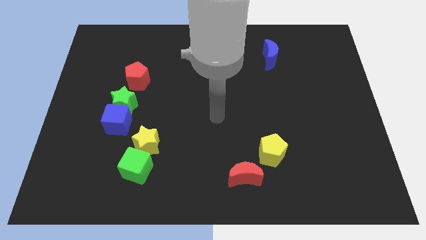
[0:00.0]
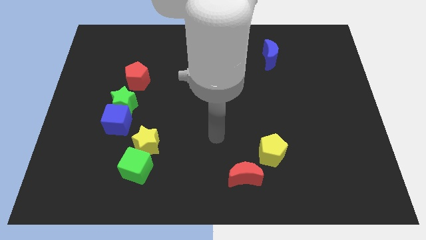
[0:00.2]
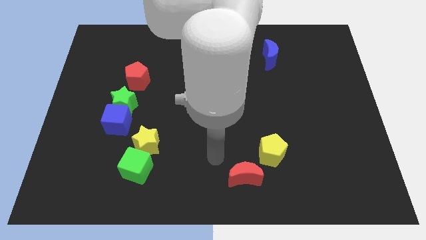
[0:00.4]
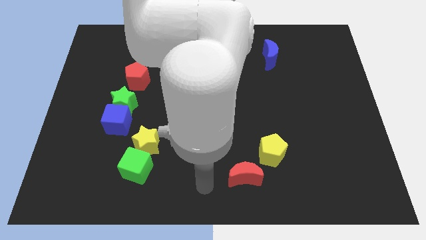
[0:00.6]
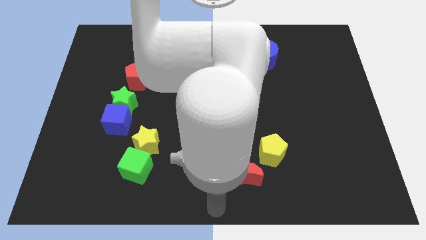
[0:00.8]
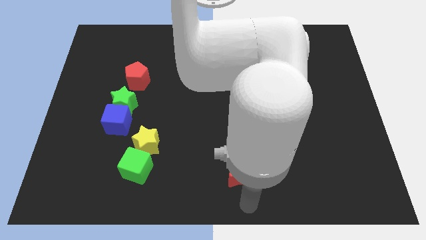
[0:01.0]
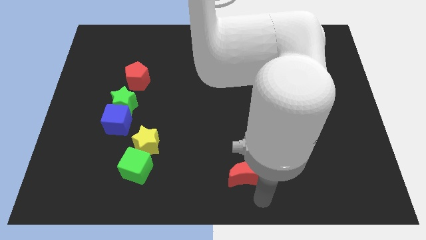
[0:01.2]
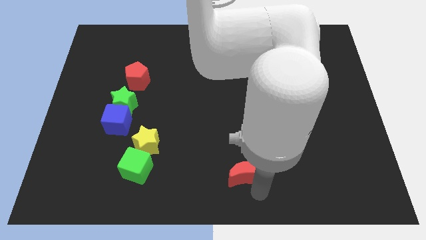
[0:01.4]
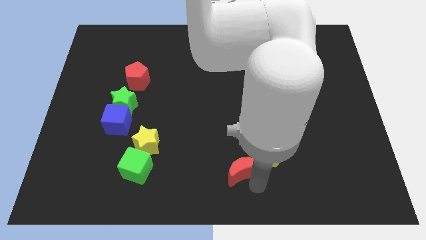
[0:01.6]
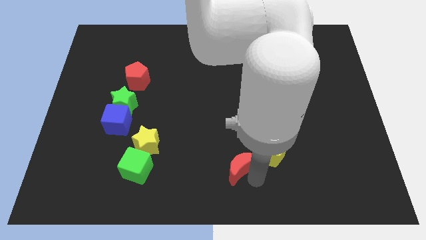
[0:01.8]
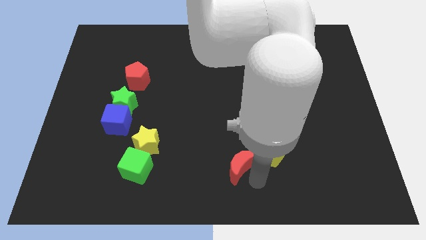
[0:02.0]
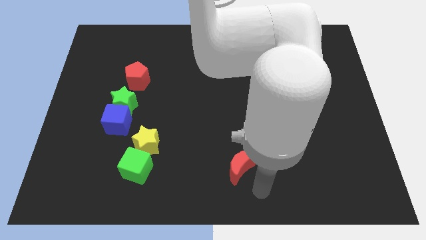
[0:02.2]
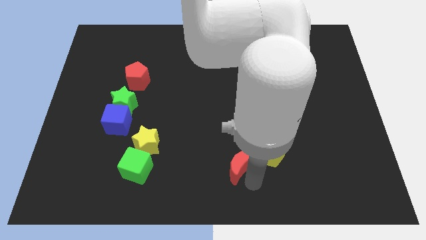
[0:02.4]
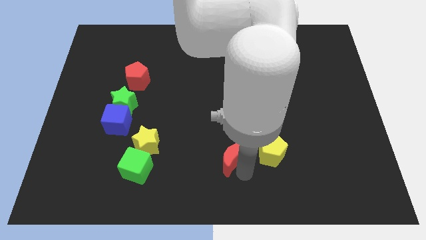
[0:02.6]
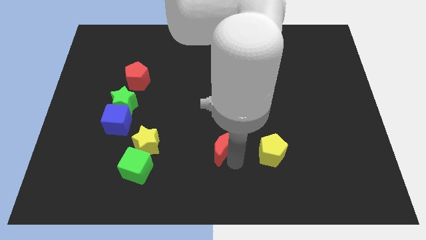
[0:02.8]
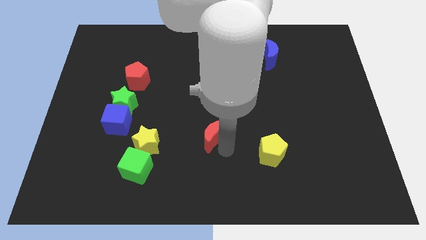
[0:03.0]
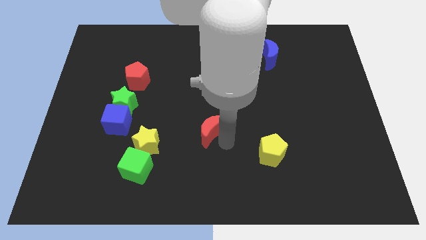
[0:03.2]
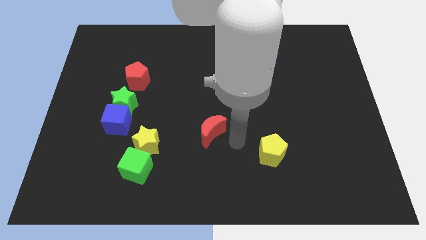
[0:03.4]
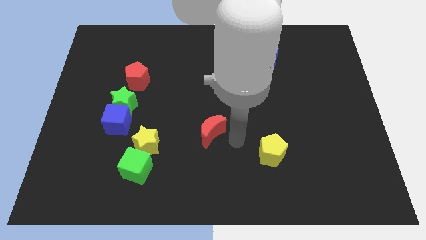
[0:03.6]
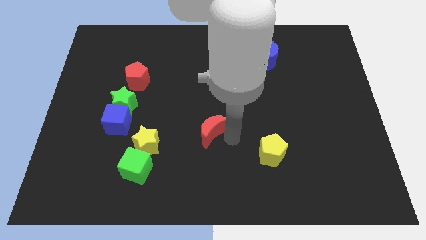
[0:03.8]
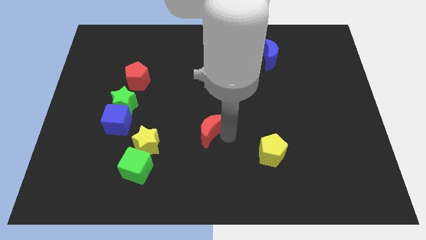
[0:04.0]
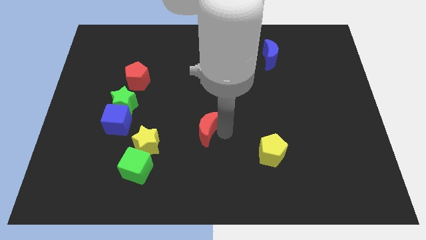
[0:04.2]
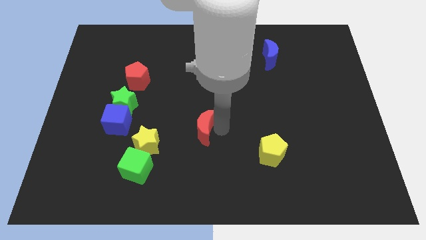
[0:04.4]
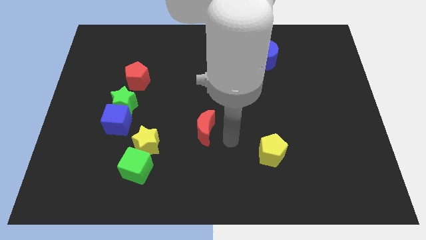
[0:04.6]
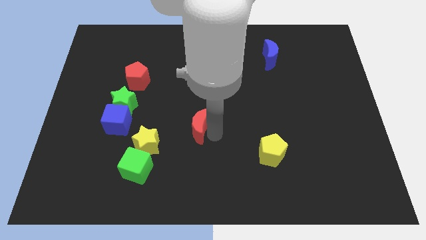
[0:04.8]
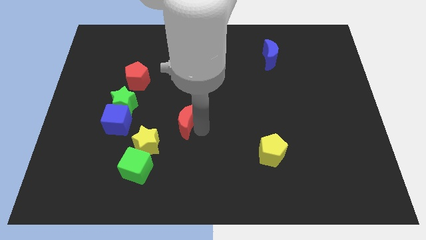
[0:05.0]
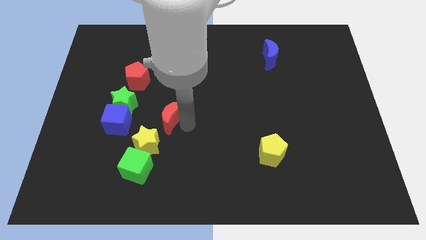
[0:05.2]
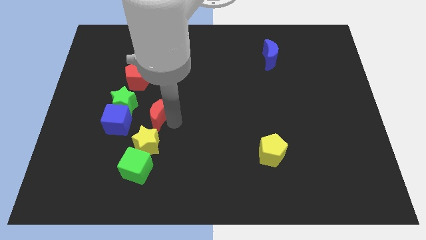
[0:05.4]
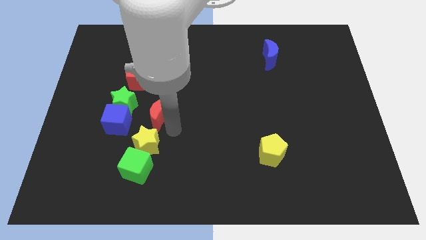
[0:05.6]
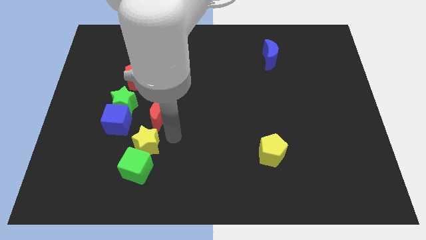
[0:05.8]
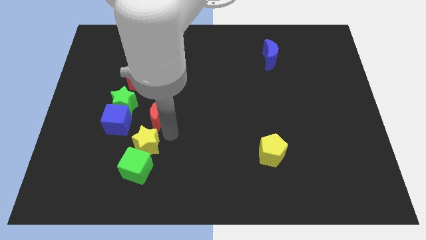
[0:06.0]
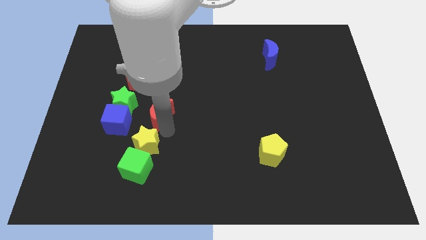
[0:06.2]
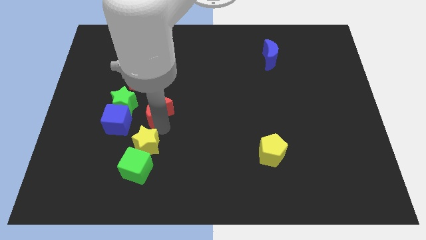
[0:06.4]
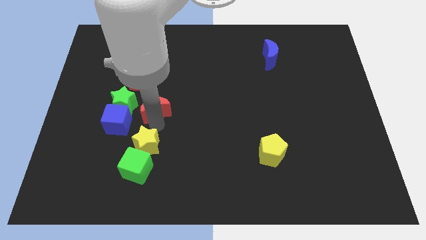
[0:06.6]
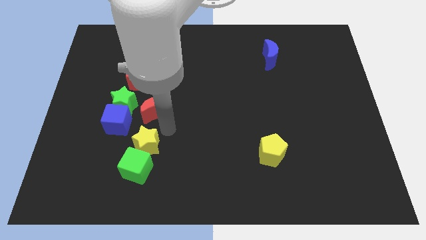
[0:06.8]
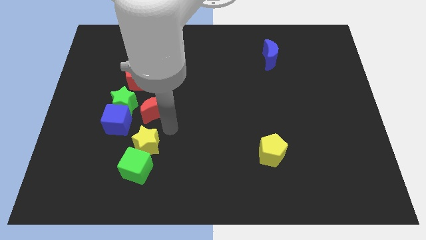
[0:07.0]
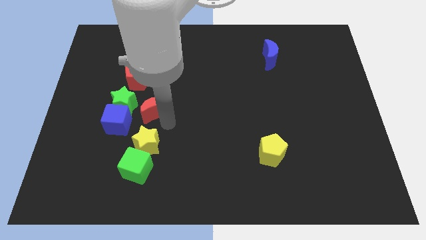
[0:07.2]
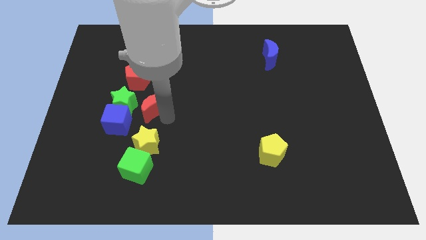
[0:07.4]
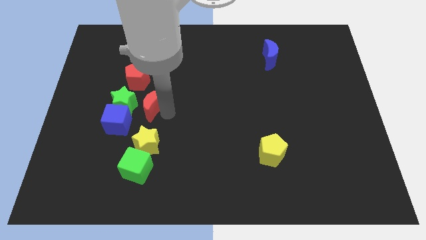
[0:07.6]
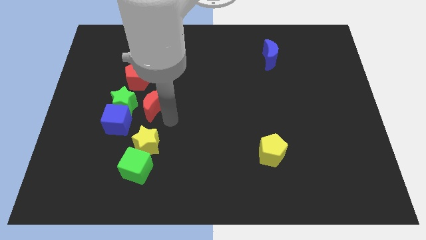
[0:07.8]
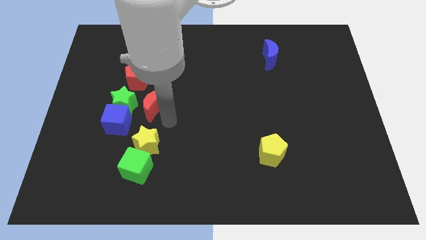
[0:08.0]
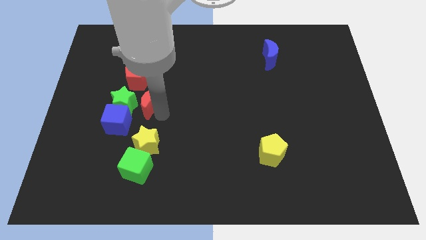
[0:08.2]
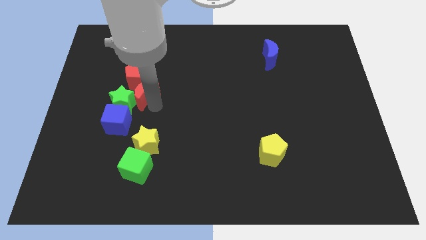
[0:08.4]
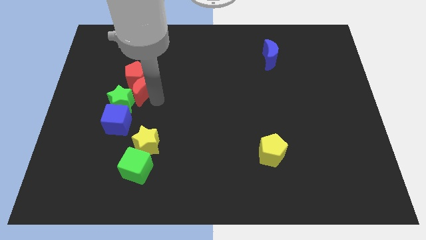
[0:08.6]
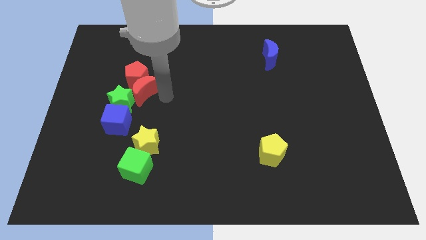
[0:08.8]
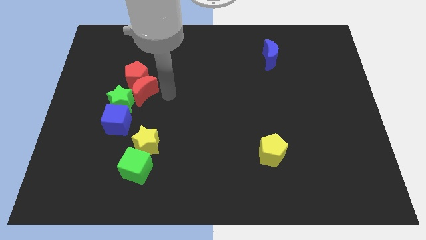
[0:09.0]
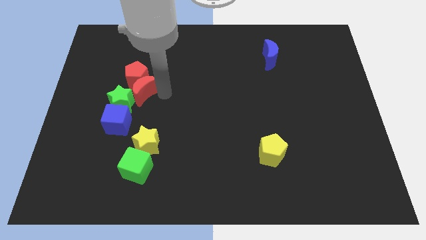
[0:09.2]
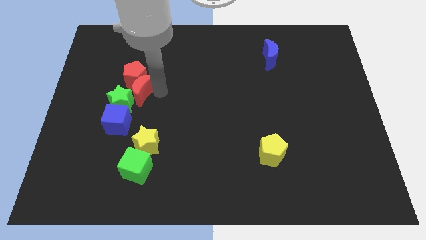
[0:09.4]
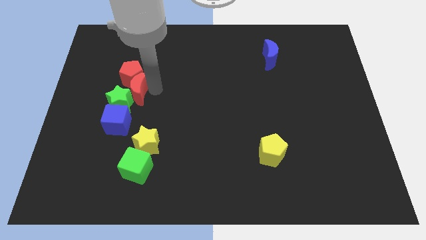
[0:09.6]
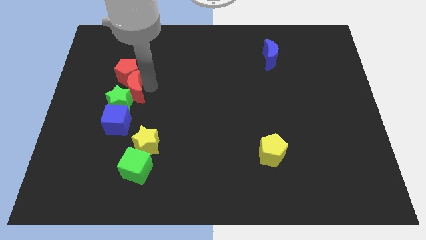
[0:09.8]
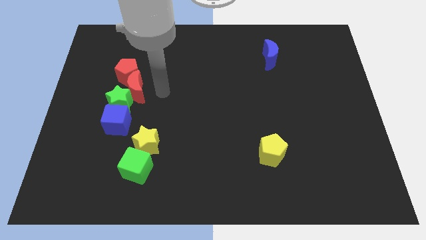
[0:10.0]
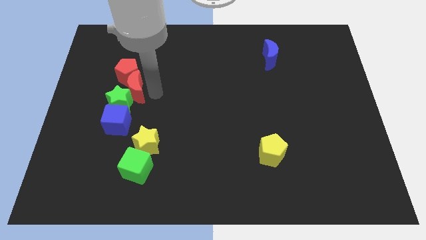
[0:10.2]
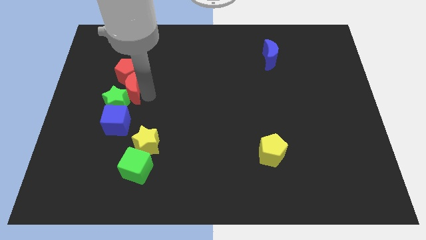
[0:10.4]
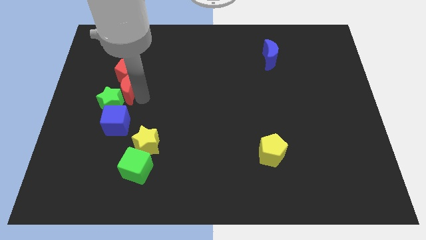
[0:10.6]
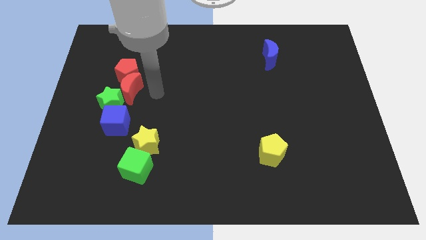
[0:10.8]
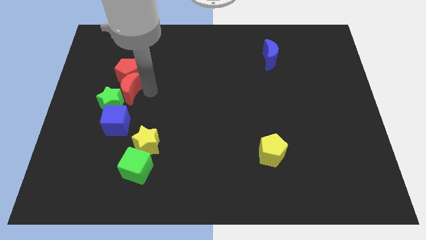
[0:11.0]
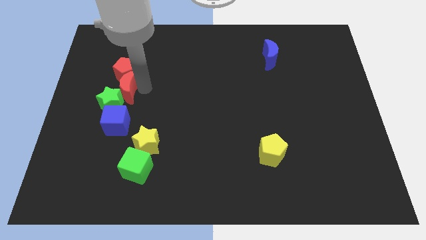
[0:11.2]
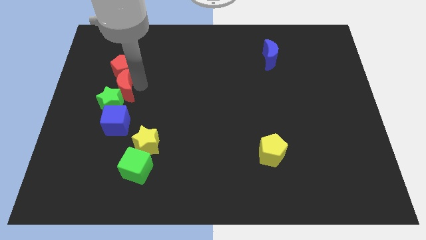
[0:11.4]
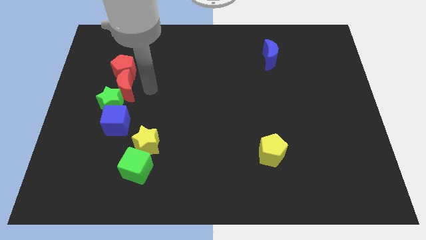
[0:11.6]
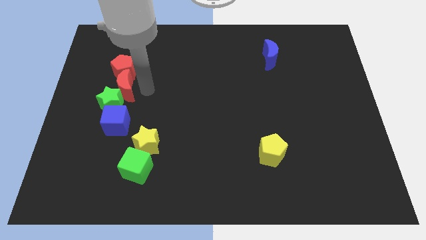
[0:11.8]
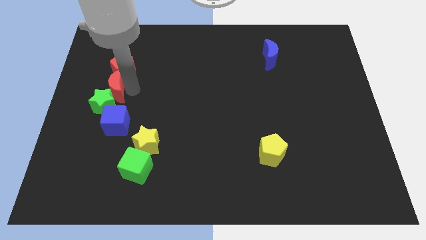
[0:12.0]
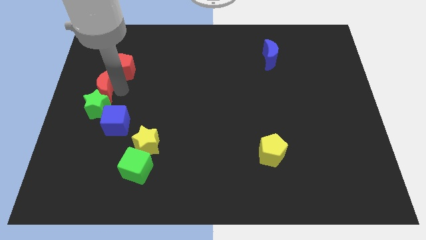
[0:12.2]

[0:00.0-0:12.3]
put the red moon to the left side of the board
